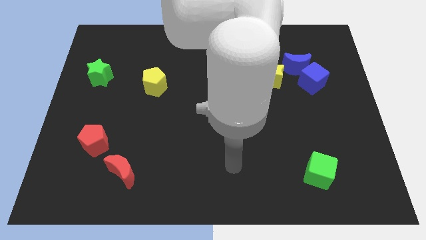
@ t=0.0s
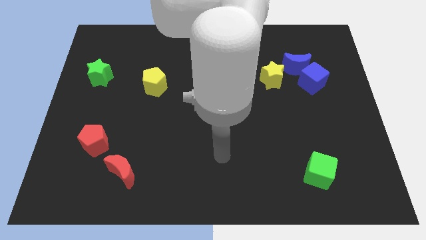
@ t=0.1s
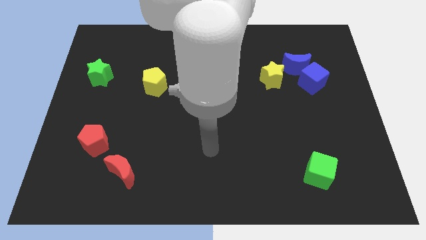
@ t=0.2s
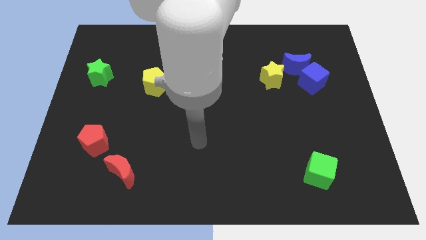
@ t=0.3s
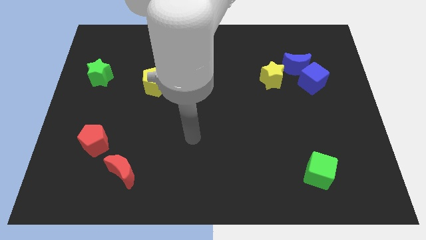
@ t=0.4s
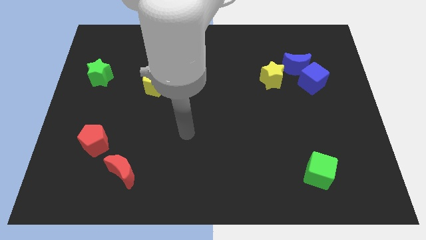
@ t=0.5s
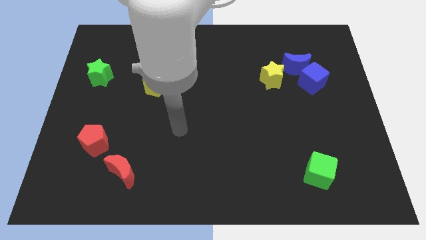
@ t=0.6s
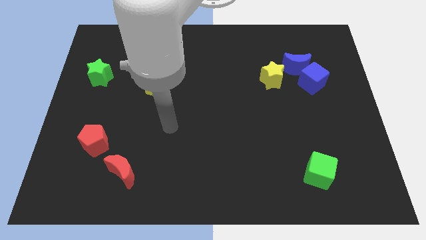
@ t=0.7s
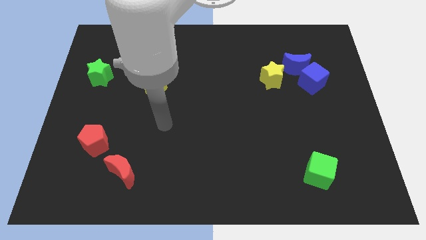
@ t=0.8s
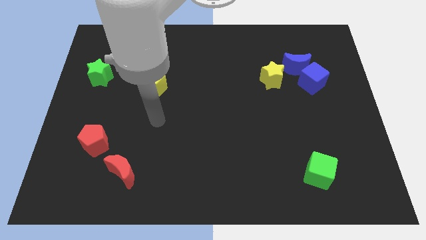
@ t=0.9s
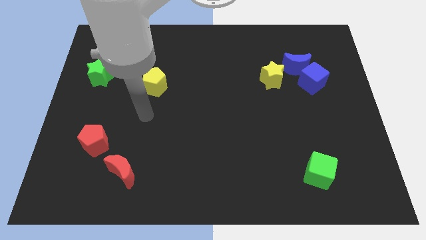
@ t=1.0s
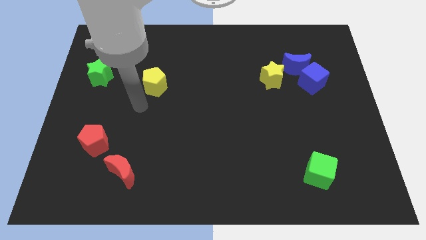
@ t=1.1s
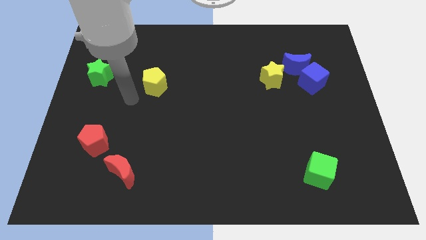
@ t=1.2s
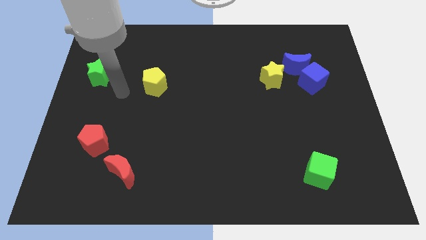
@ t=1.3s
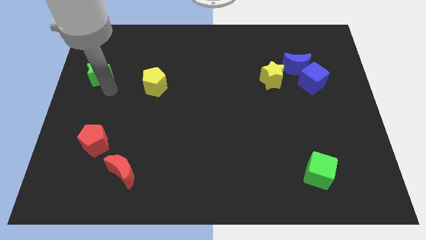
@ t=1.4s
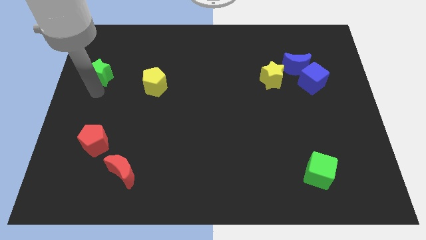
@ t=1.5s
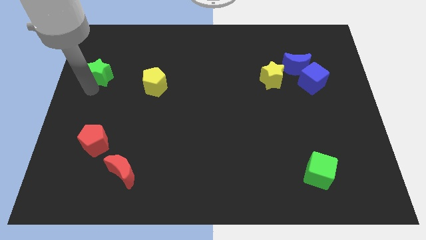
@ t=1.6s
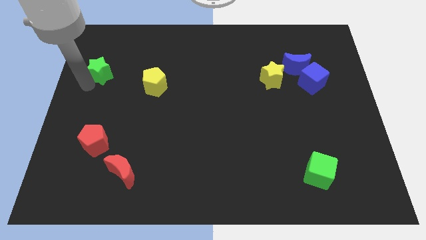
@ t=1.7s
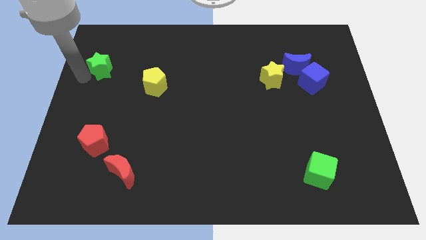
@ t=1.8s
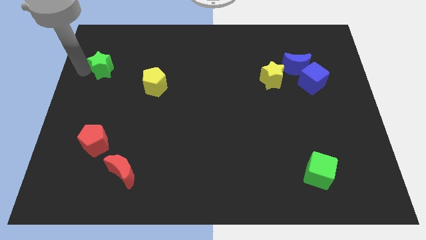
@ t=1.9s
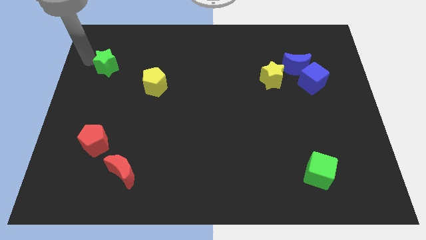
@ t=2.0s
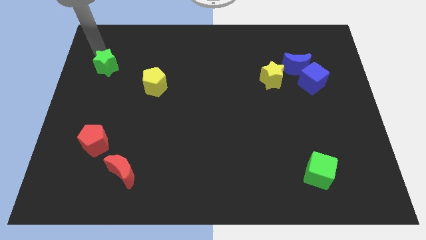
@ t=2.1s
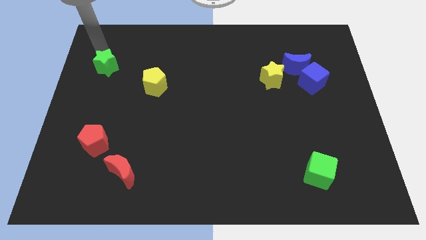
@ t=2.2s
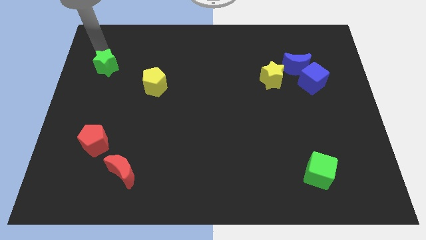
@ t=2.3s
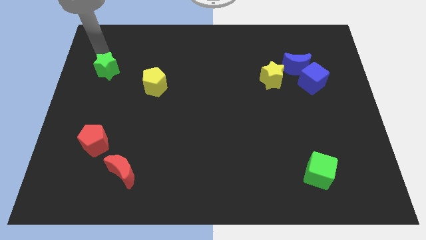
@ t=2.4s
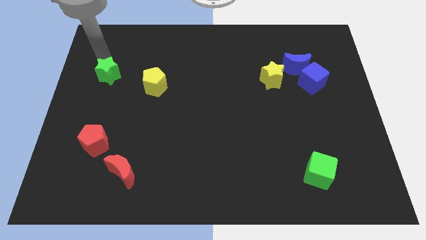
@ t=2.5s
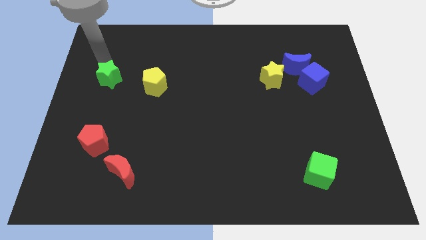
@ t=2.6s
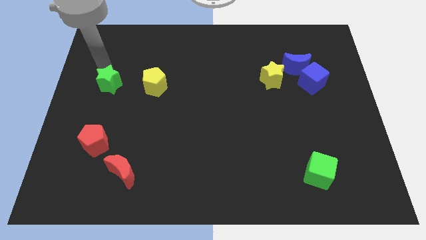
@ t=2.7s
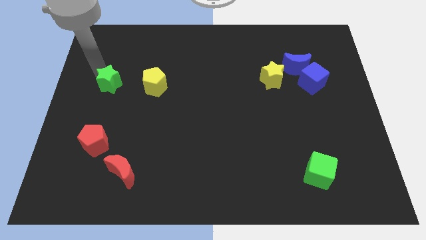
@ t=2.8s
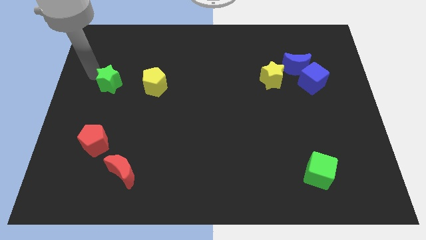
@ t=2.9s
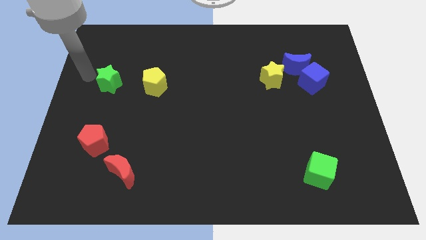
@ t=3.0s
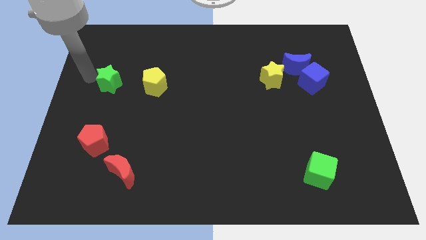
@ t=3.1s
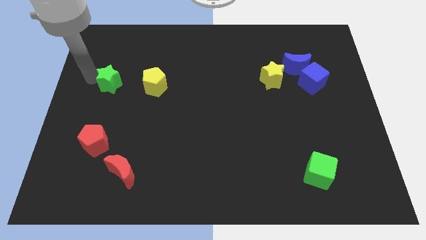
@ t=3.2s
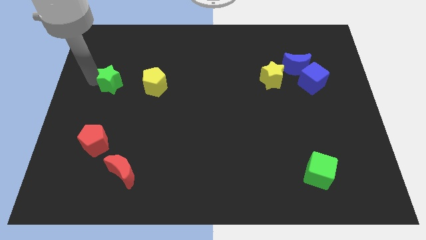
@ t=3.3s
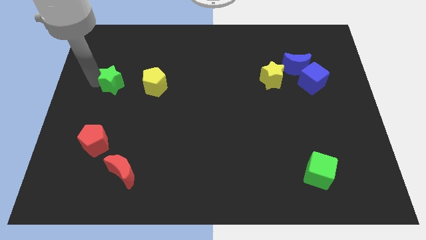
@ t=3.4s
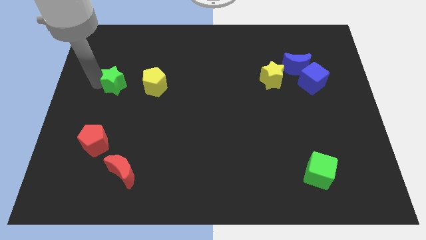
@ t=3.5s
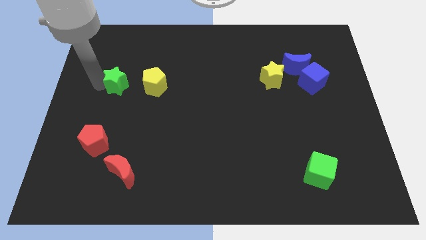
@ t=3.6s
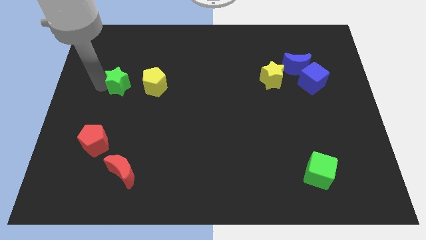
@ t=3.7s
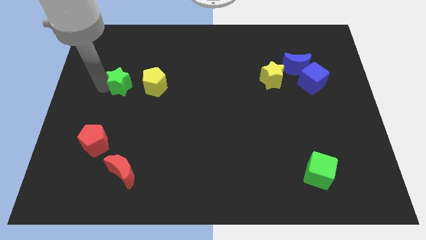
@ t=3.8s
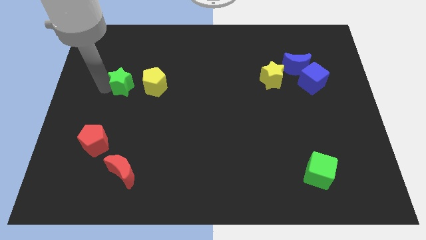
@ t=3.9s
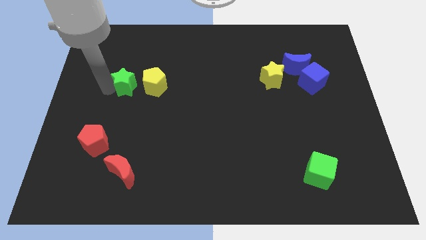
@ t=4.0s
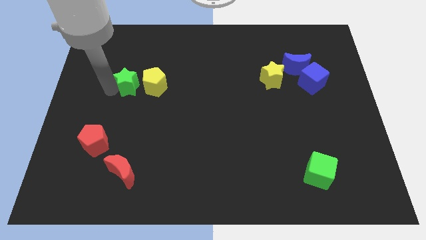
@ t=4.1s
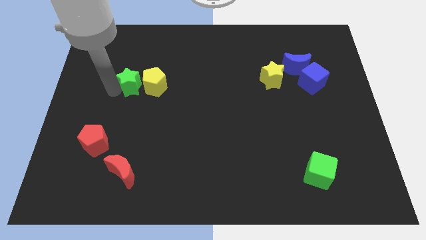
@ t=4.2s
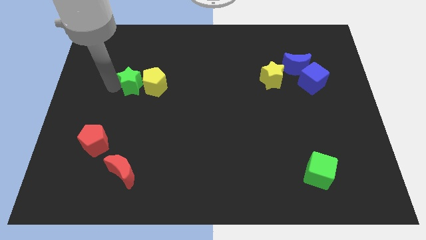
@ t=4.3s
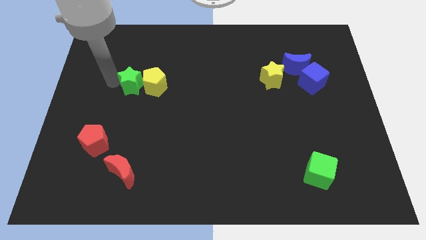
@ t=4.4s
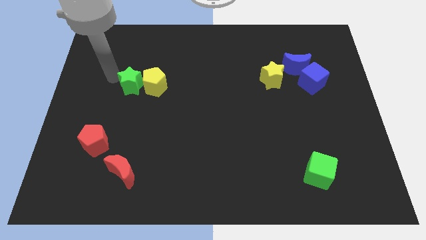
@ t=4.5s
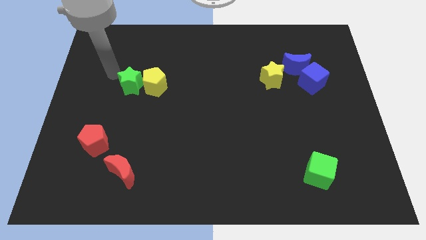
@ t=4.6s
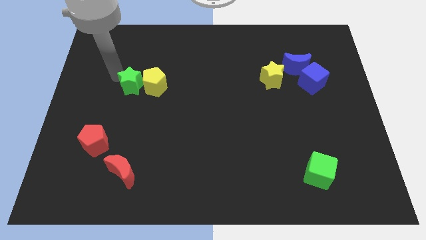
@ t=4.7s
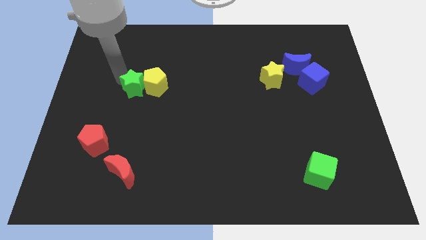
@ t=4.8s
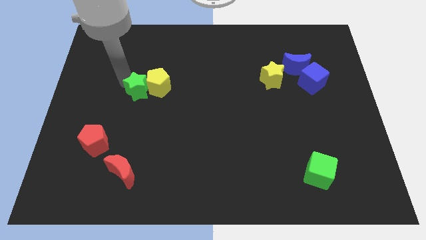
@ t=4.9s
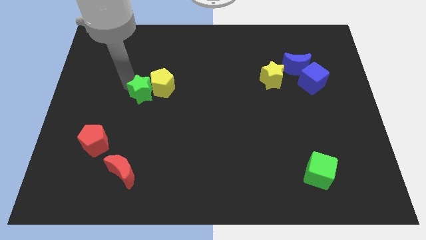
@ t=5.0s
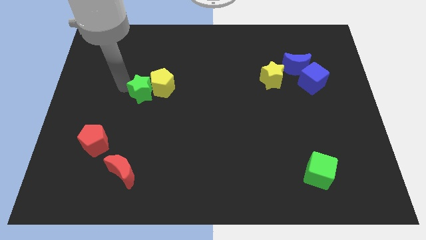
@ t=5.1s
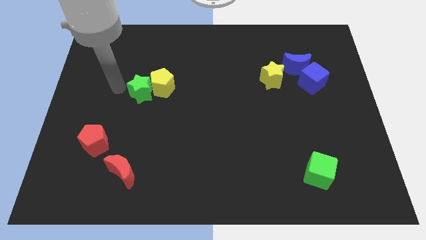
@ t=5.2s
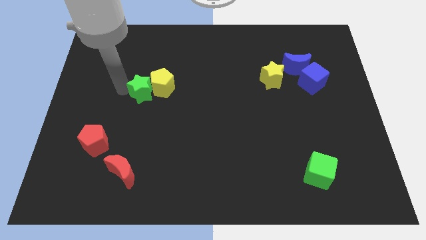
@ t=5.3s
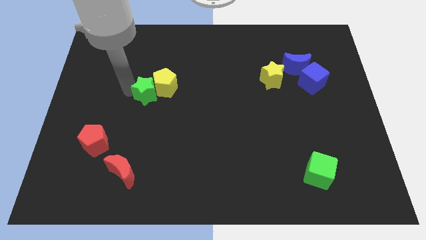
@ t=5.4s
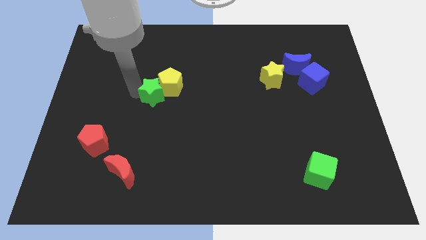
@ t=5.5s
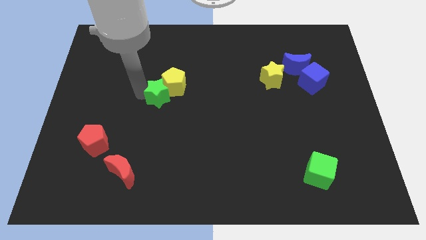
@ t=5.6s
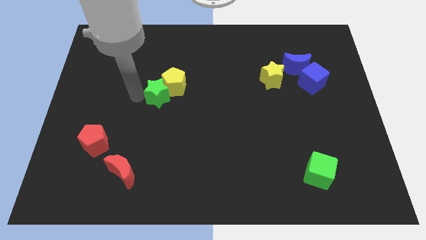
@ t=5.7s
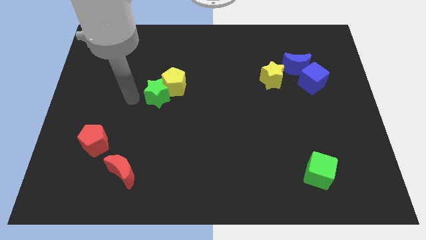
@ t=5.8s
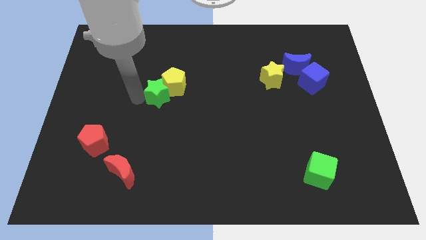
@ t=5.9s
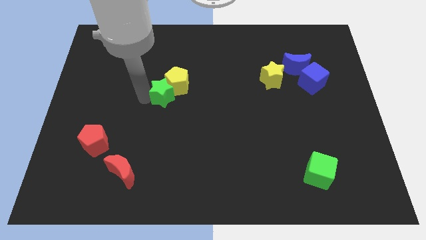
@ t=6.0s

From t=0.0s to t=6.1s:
move the green star to the center

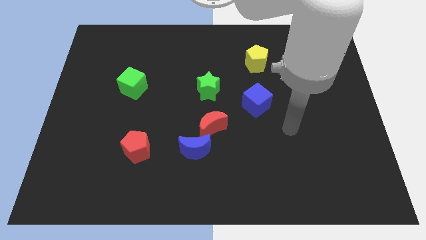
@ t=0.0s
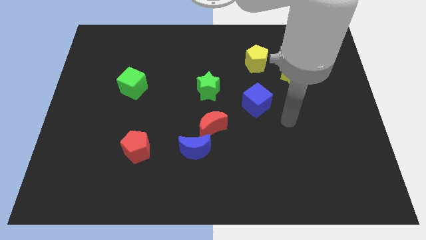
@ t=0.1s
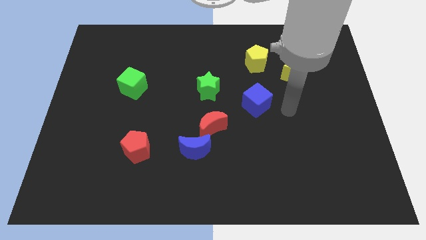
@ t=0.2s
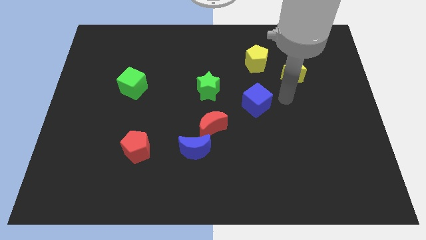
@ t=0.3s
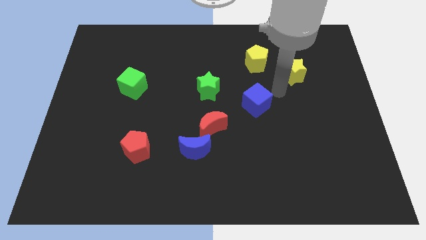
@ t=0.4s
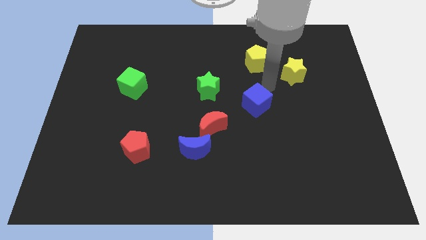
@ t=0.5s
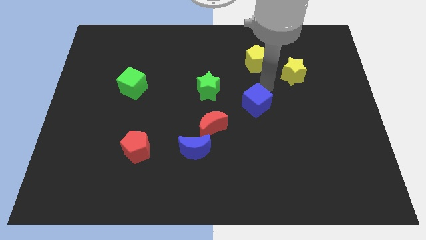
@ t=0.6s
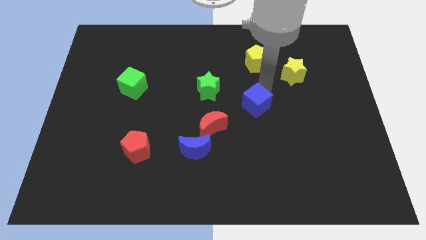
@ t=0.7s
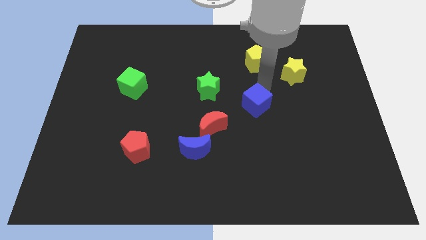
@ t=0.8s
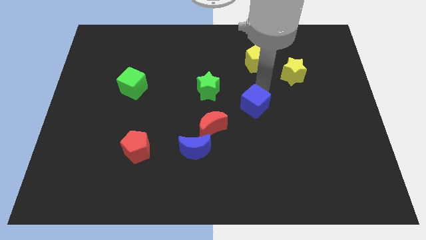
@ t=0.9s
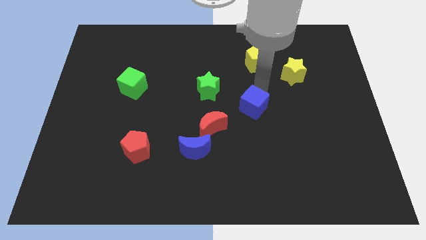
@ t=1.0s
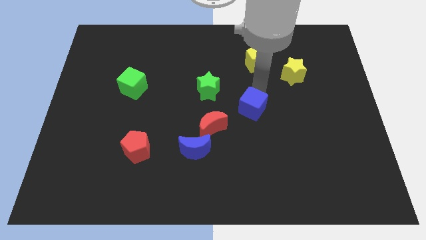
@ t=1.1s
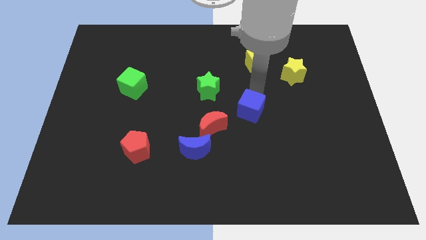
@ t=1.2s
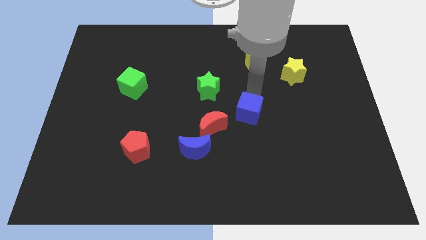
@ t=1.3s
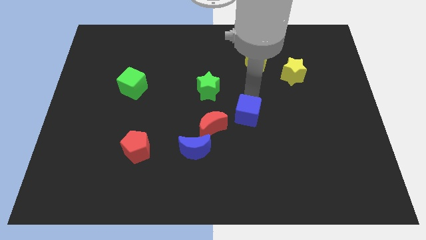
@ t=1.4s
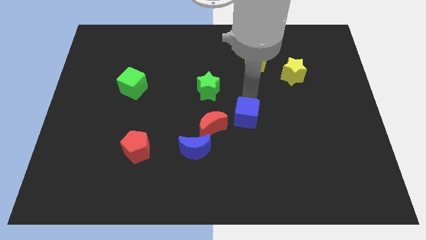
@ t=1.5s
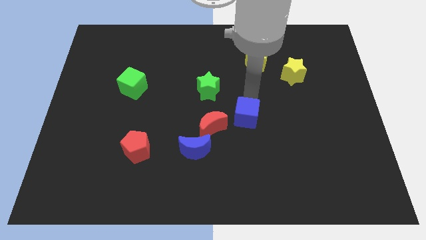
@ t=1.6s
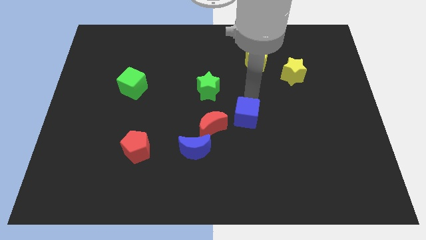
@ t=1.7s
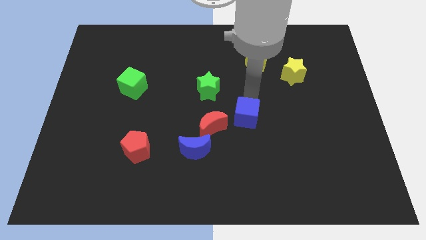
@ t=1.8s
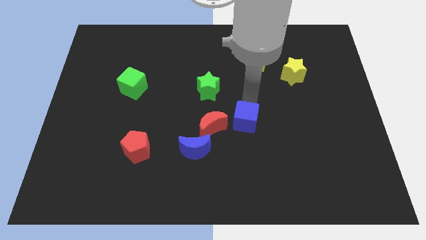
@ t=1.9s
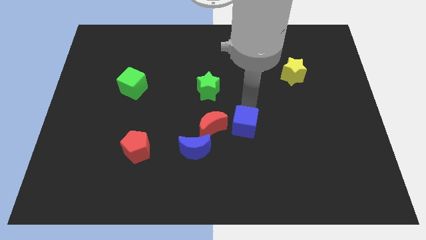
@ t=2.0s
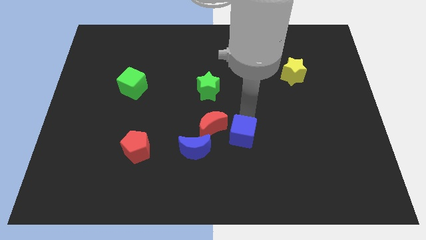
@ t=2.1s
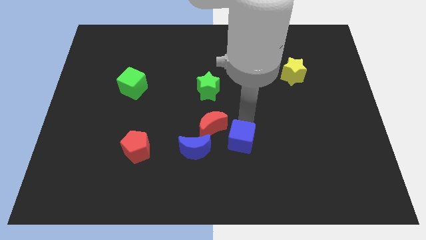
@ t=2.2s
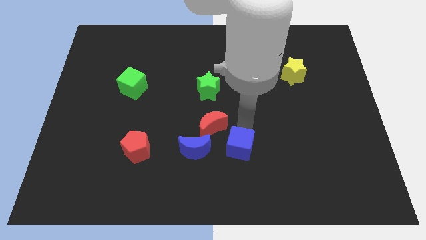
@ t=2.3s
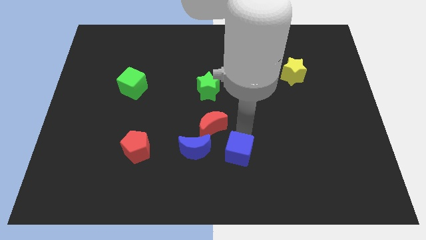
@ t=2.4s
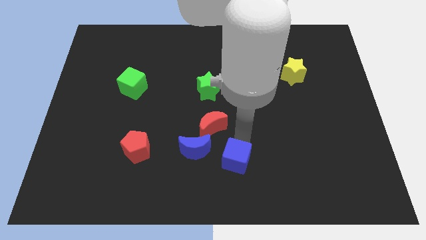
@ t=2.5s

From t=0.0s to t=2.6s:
put the blue cube to the bottom side
